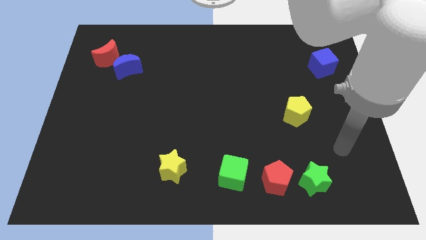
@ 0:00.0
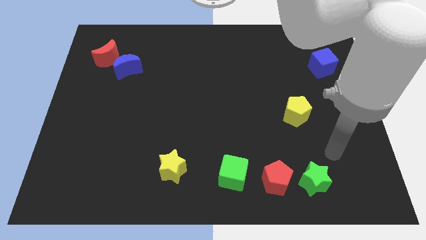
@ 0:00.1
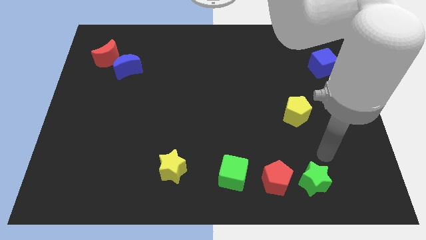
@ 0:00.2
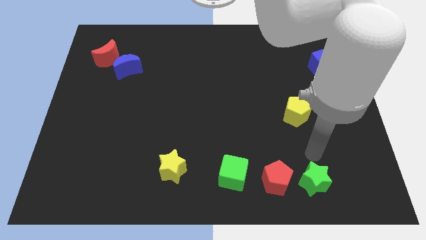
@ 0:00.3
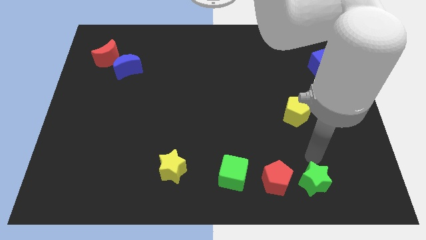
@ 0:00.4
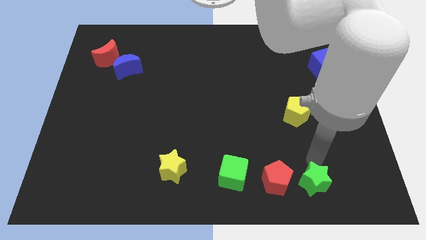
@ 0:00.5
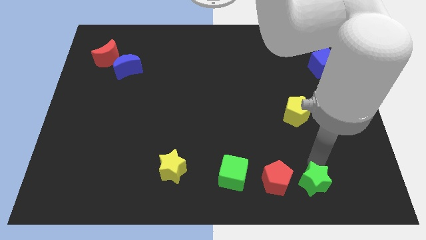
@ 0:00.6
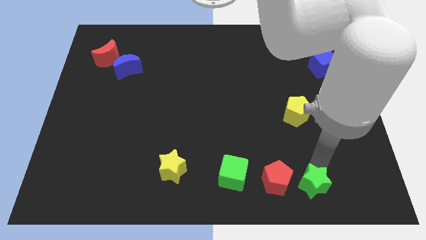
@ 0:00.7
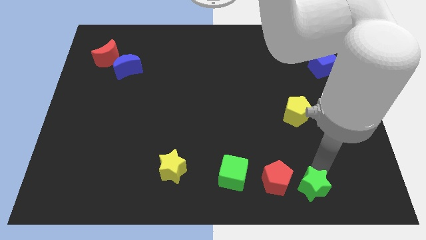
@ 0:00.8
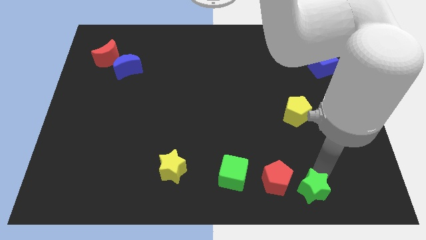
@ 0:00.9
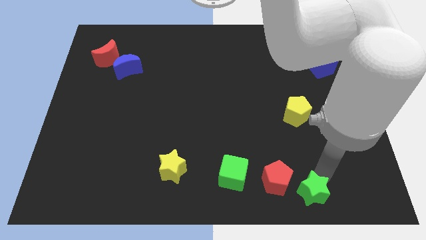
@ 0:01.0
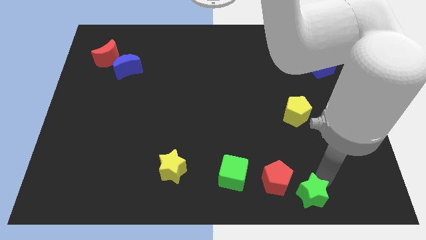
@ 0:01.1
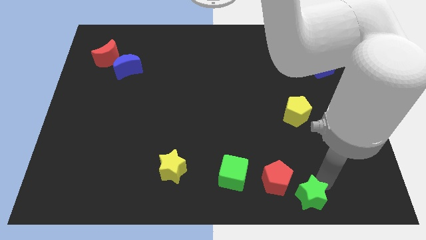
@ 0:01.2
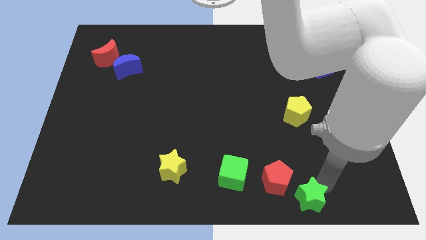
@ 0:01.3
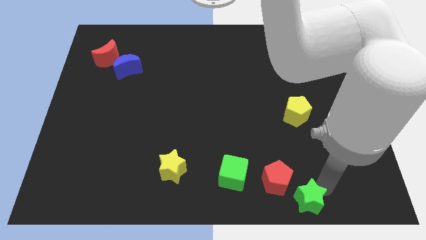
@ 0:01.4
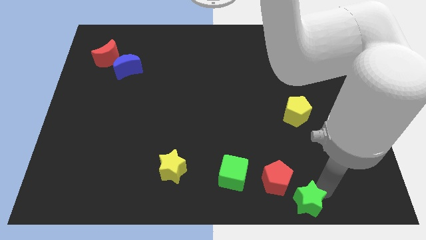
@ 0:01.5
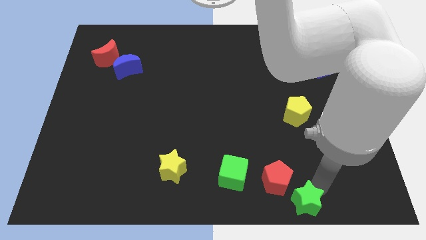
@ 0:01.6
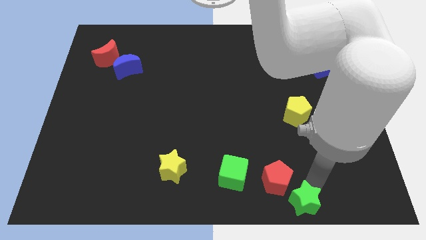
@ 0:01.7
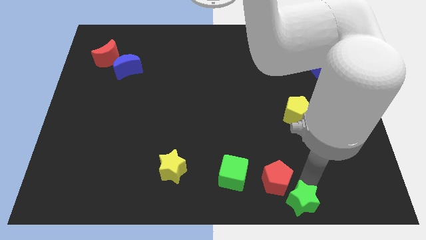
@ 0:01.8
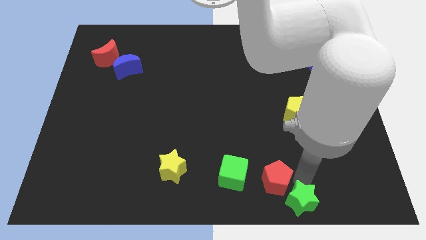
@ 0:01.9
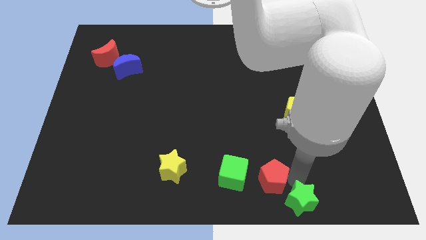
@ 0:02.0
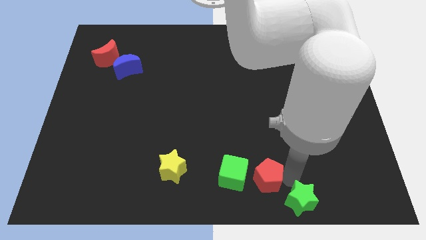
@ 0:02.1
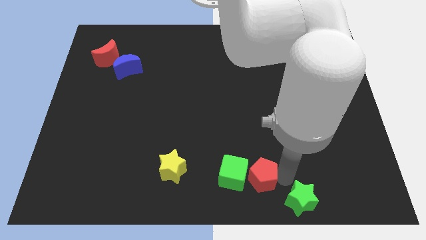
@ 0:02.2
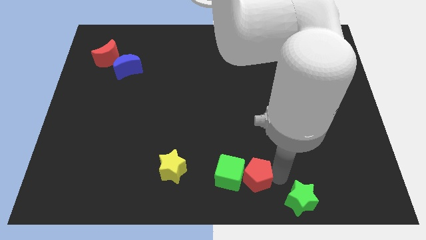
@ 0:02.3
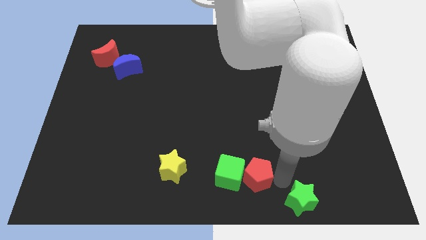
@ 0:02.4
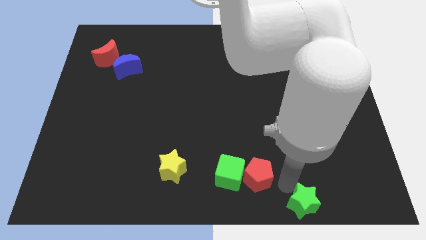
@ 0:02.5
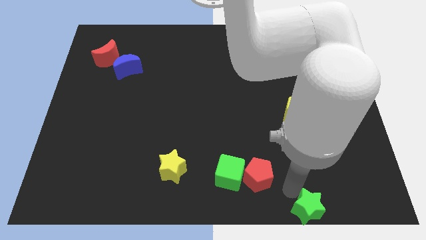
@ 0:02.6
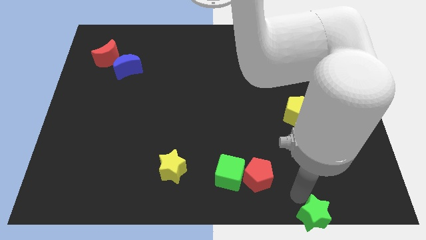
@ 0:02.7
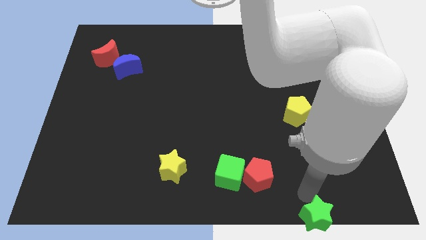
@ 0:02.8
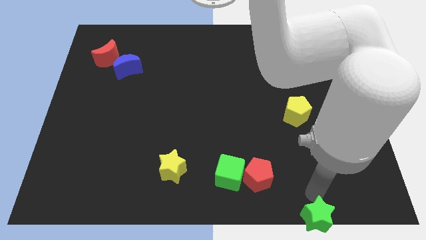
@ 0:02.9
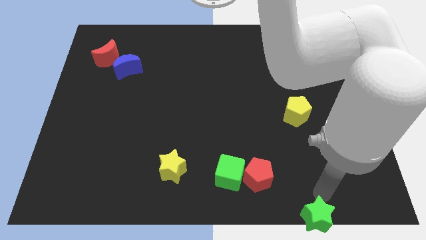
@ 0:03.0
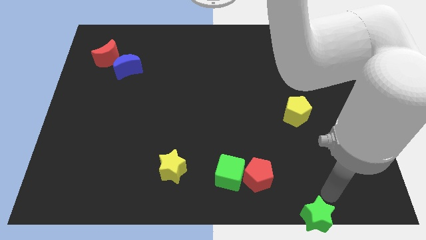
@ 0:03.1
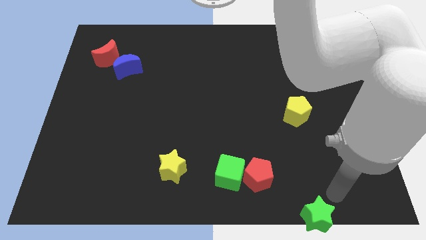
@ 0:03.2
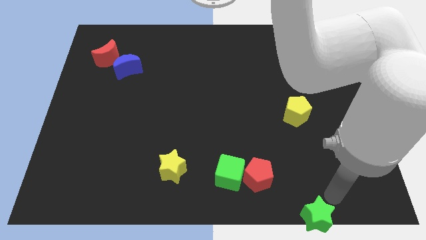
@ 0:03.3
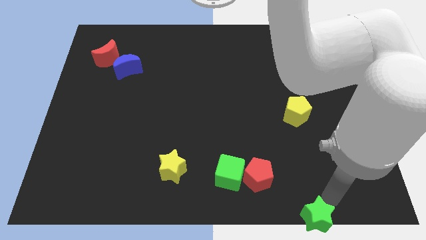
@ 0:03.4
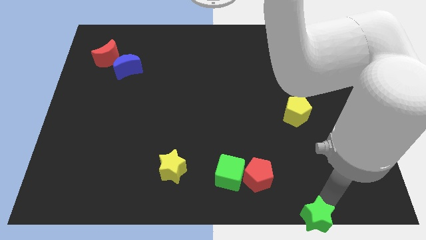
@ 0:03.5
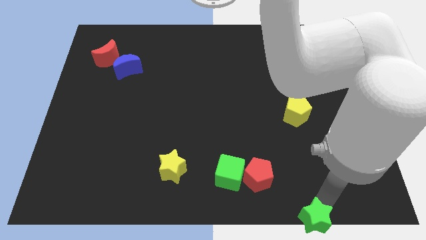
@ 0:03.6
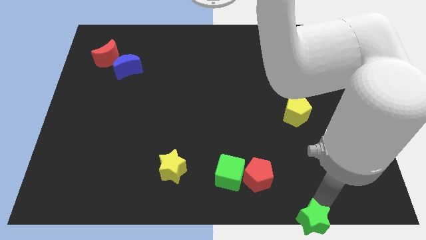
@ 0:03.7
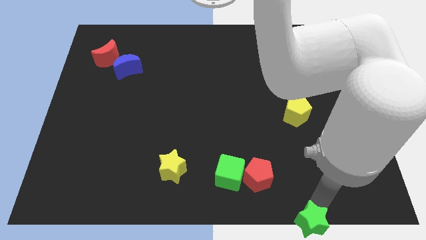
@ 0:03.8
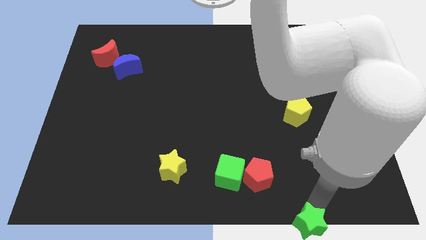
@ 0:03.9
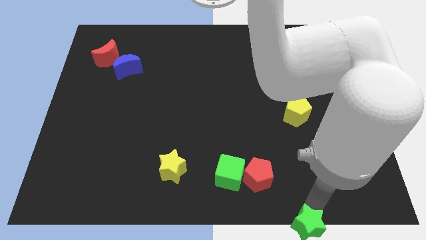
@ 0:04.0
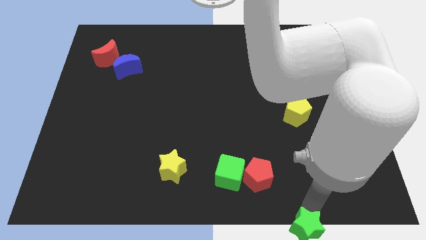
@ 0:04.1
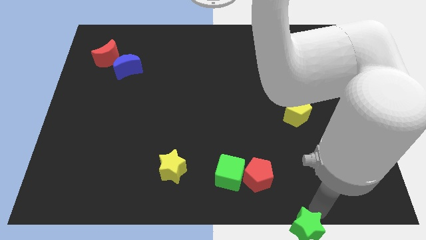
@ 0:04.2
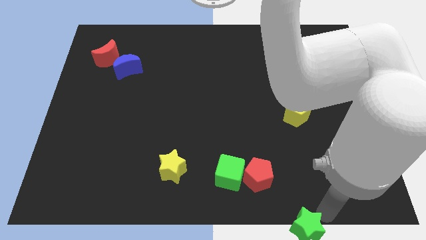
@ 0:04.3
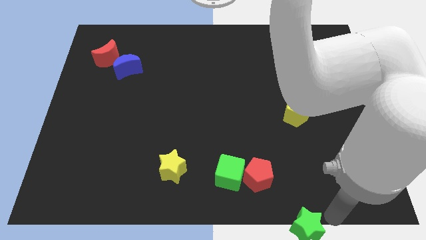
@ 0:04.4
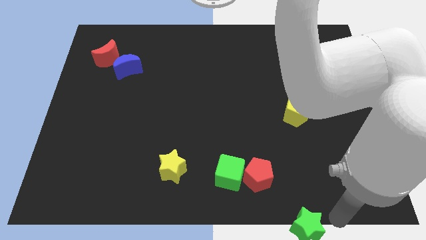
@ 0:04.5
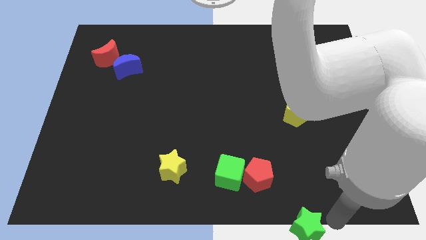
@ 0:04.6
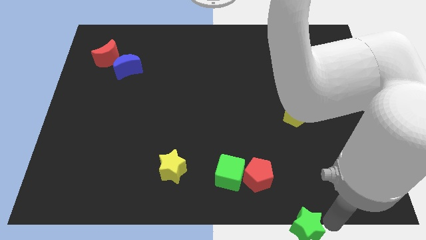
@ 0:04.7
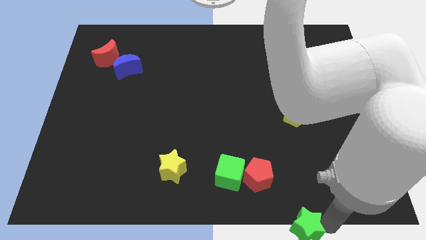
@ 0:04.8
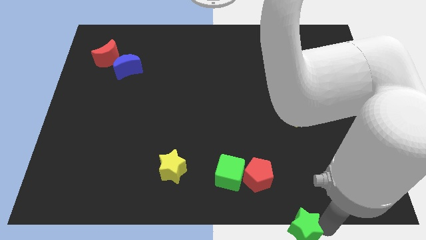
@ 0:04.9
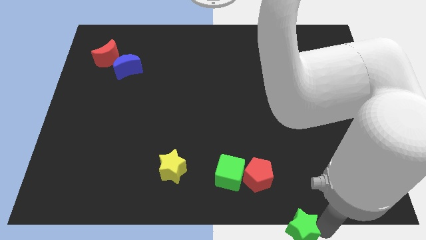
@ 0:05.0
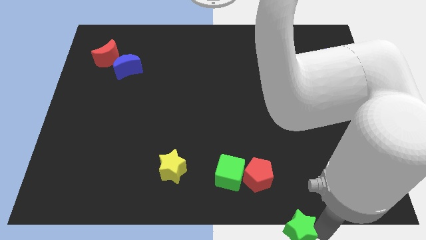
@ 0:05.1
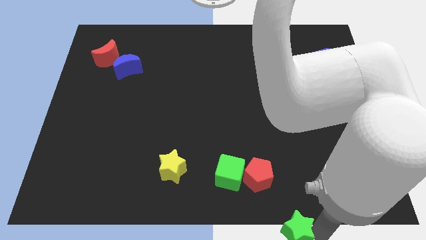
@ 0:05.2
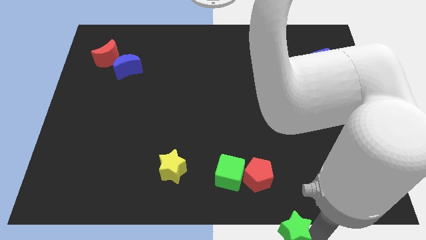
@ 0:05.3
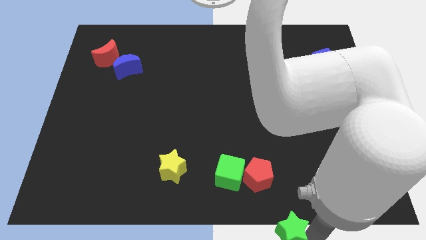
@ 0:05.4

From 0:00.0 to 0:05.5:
put the green star to the bottom side
